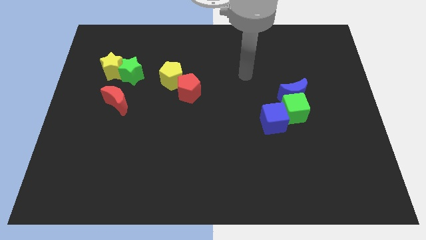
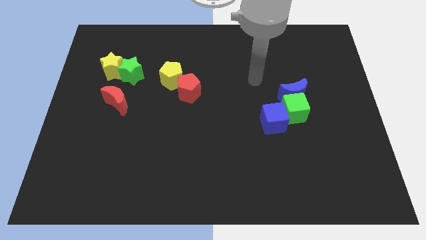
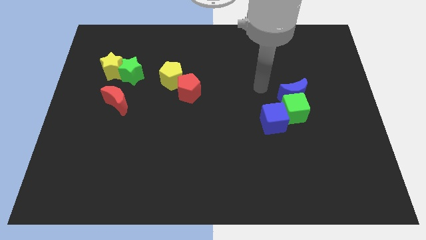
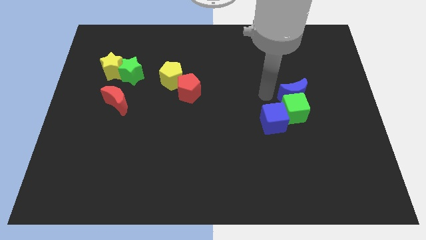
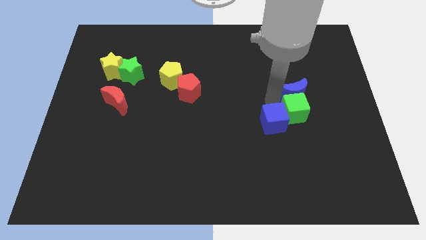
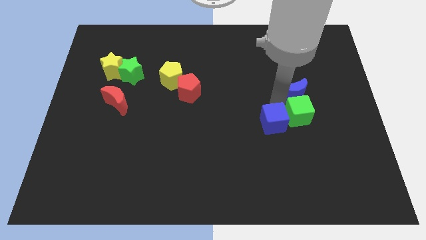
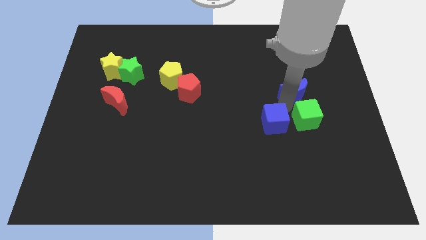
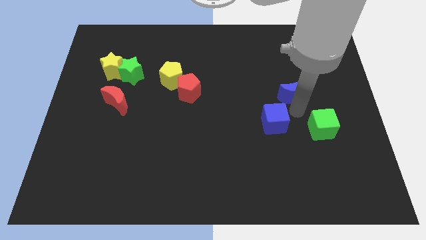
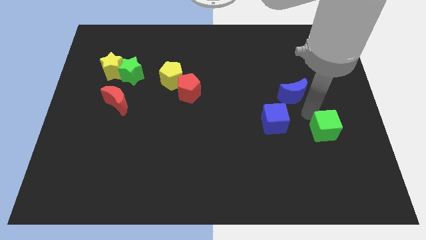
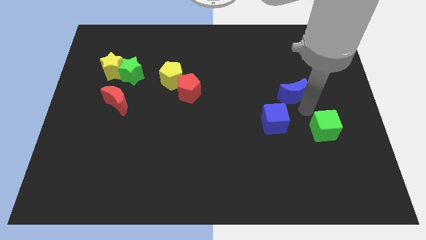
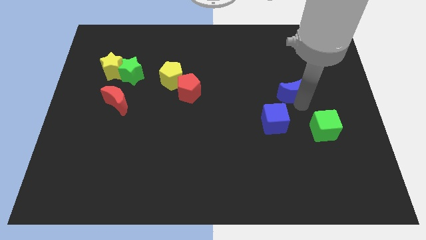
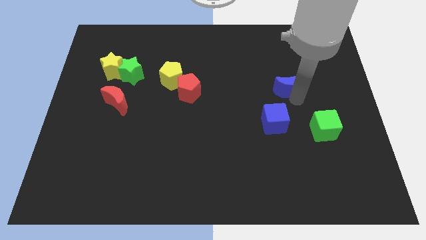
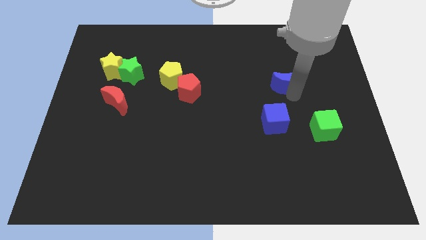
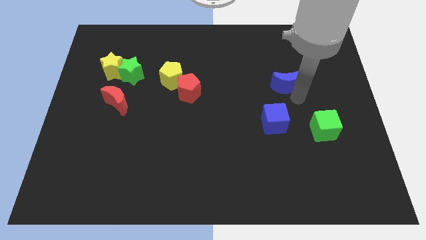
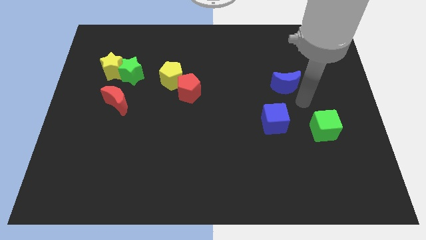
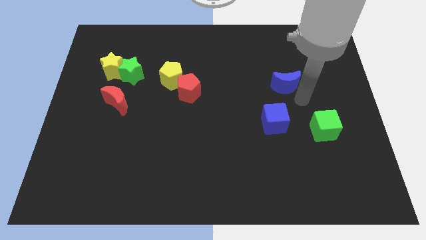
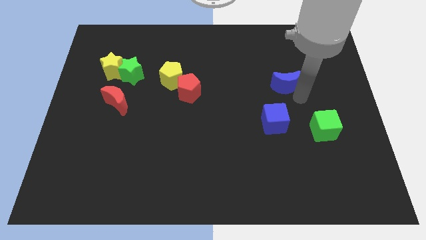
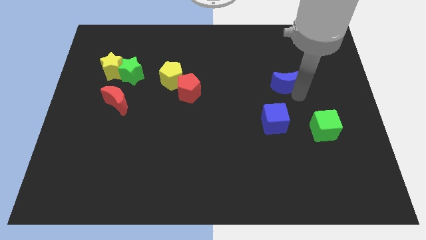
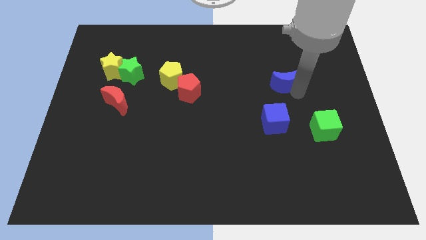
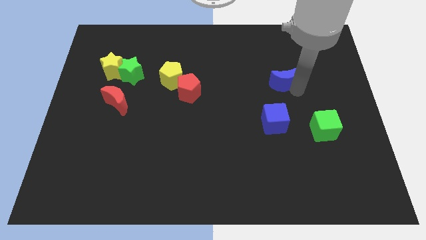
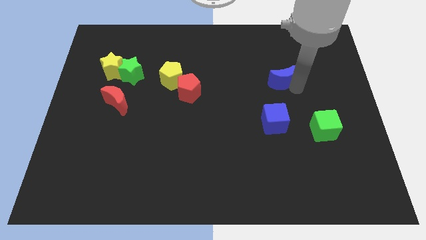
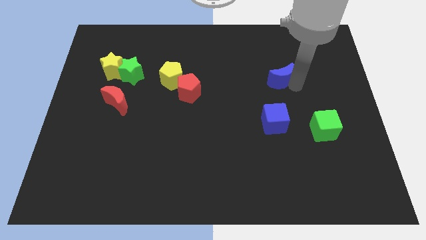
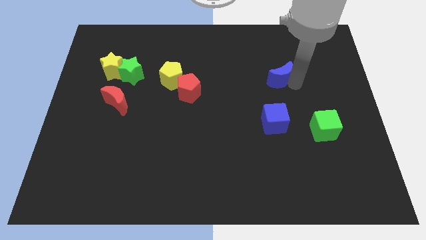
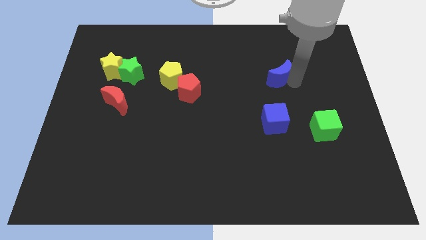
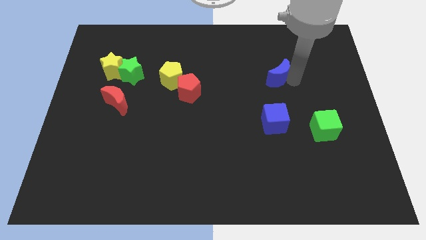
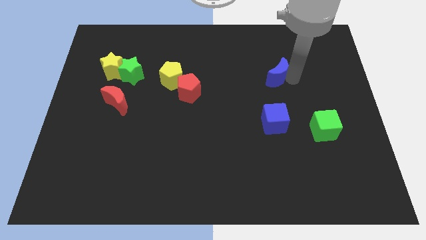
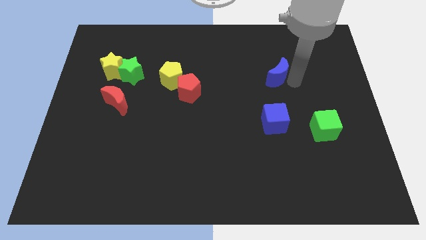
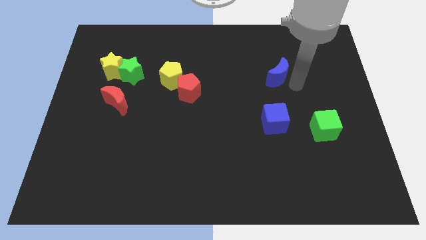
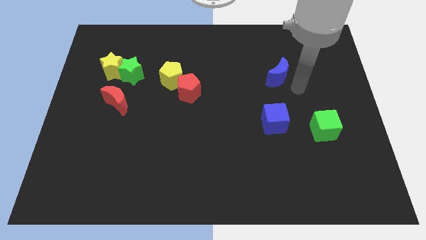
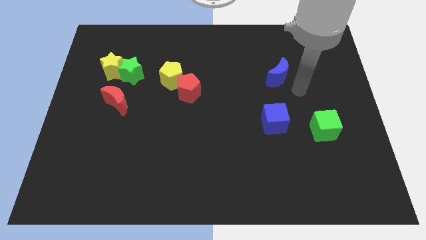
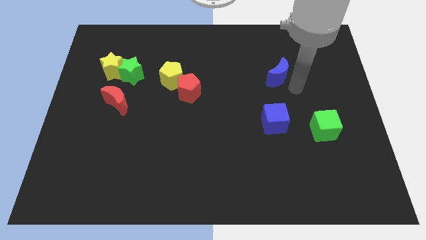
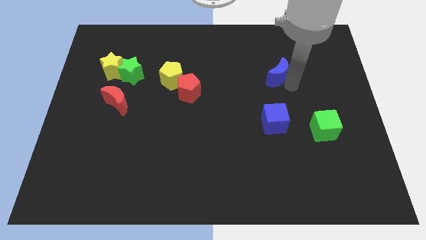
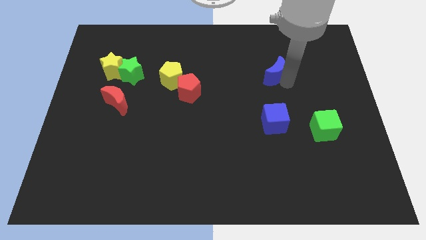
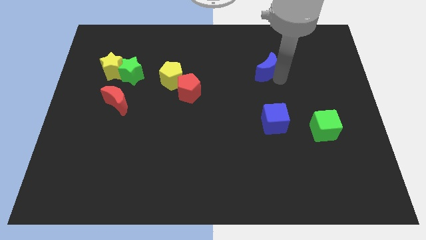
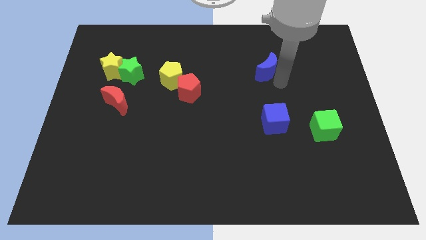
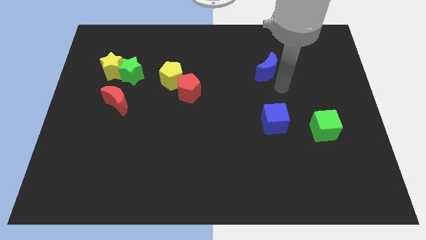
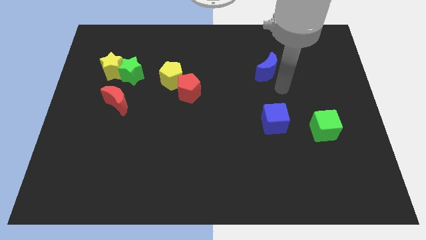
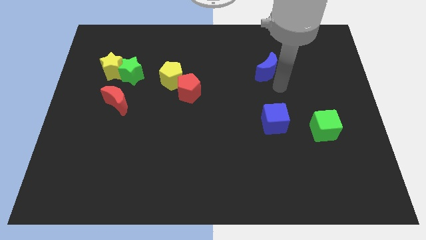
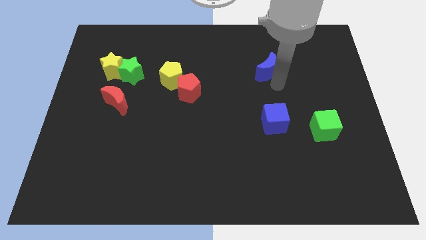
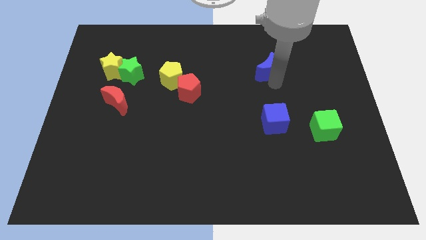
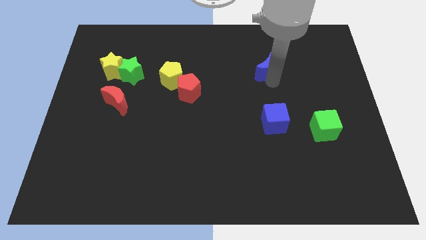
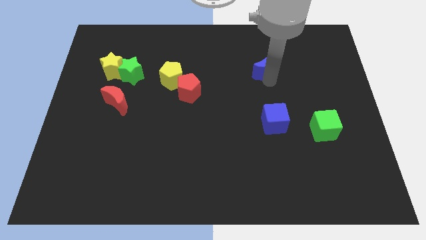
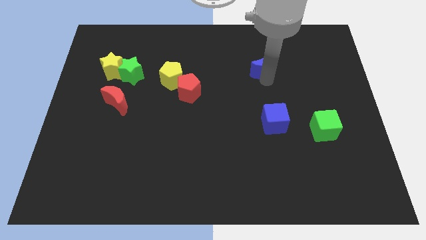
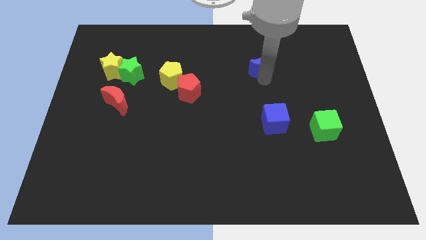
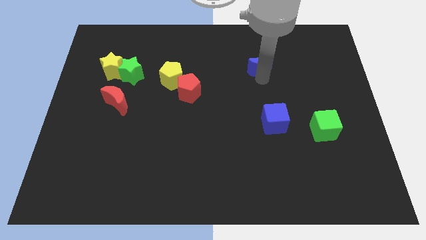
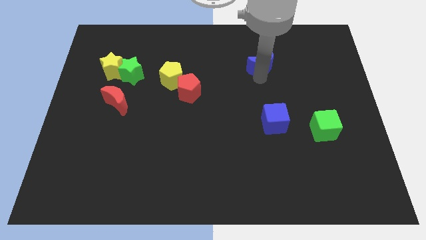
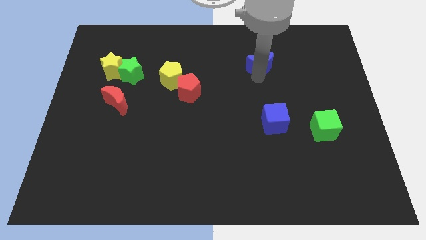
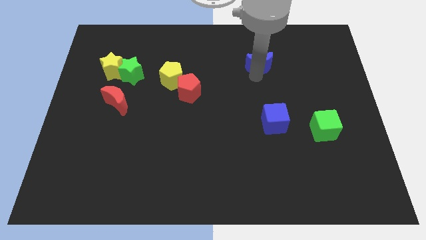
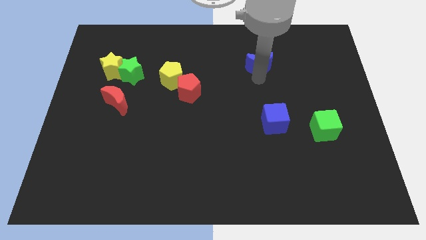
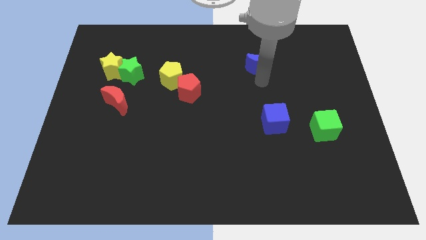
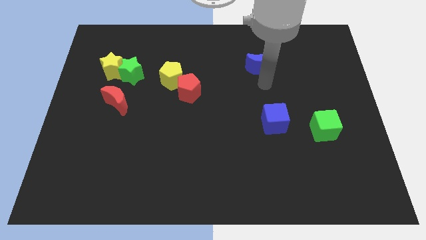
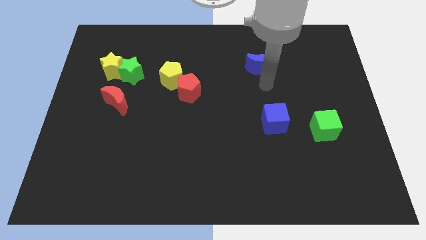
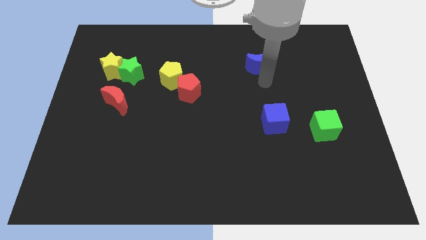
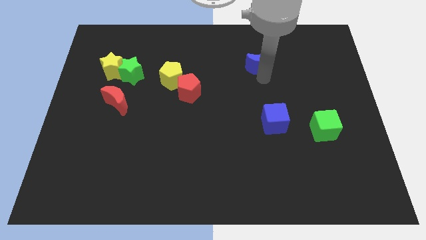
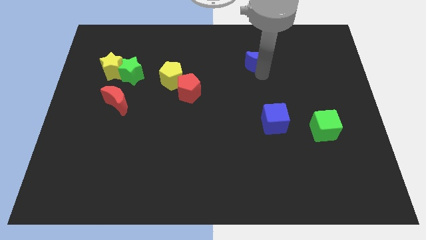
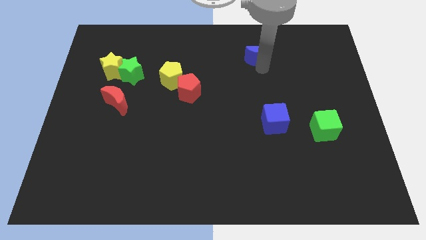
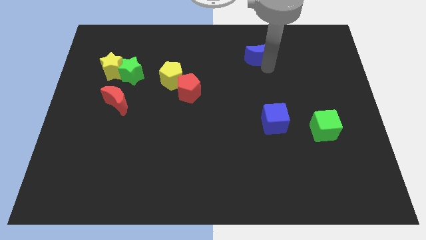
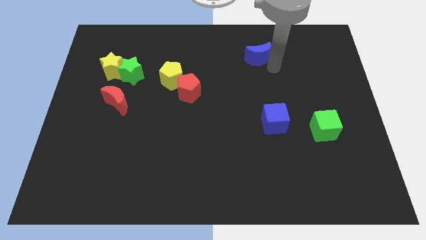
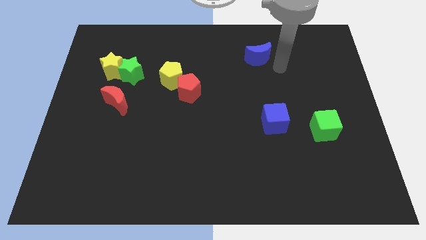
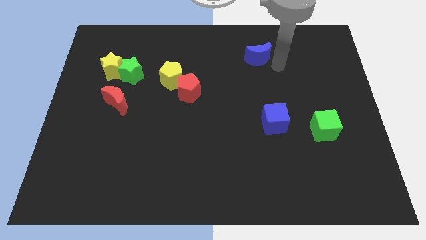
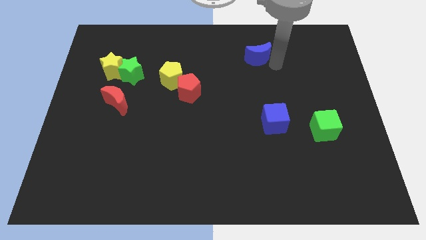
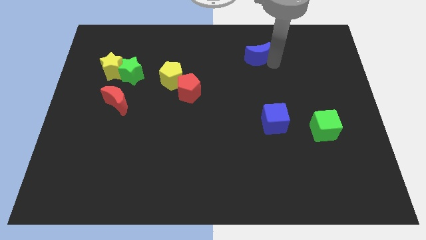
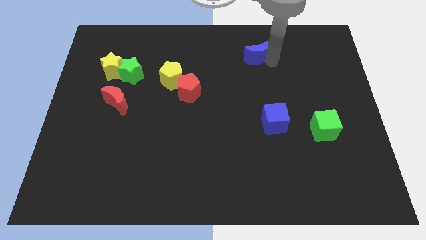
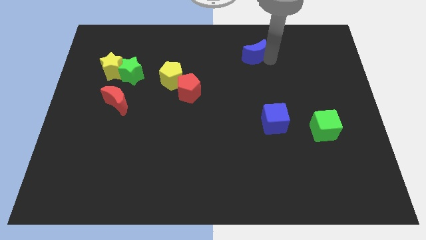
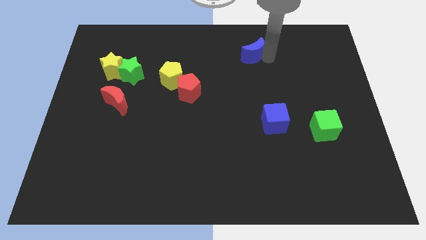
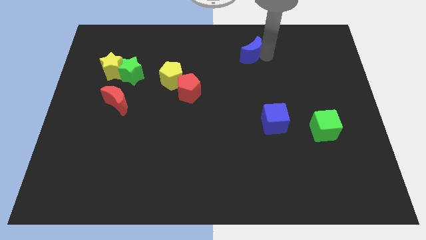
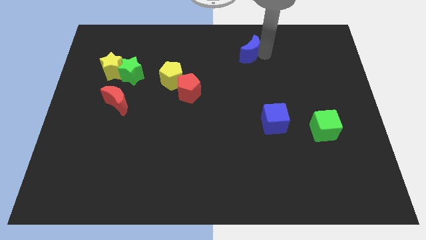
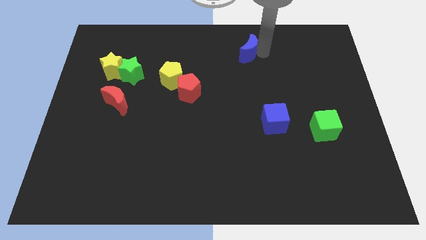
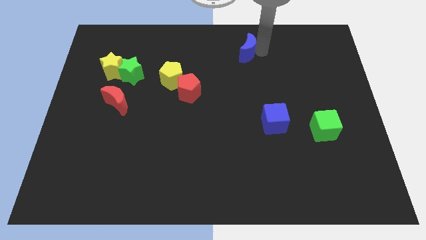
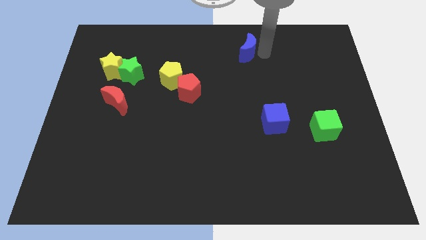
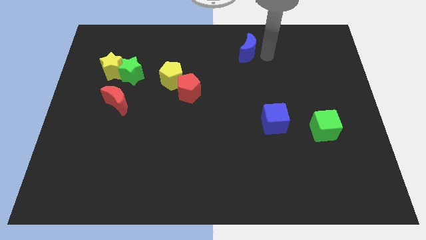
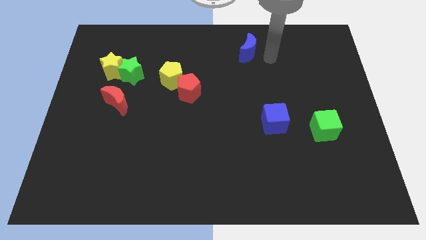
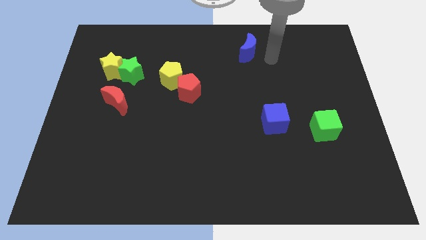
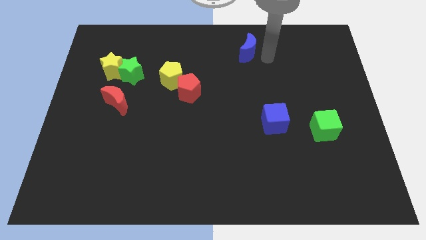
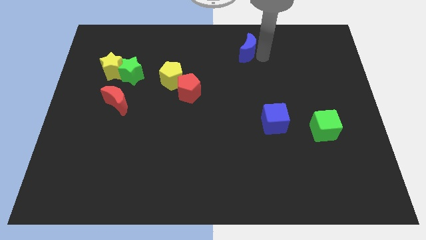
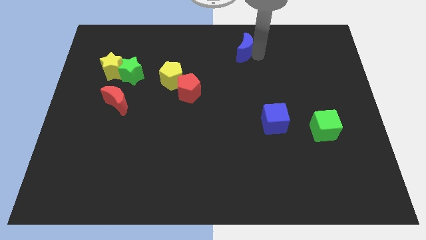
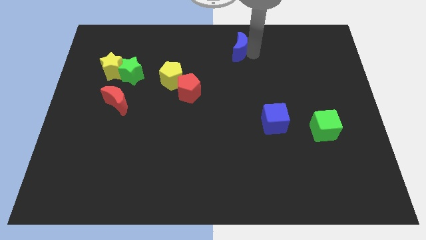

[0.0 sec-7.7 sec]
put the blue moon to the towards your base
